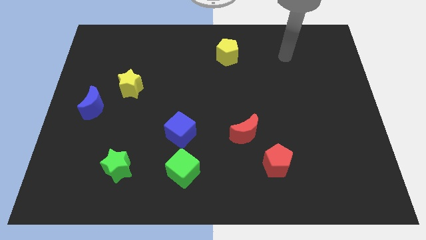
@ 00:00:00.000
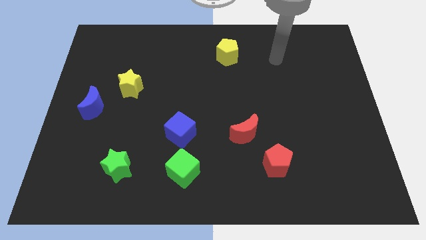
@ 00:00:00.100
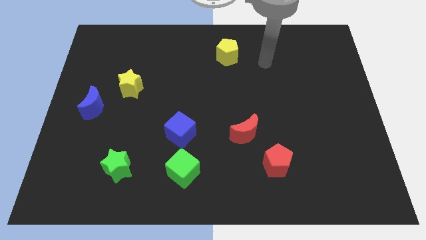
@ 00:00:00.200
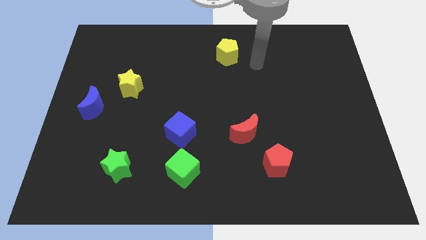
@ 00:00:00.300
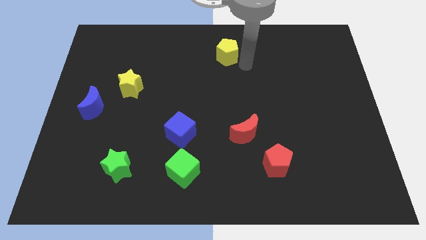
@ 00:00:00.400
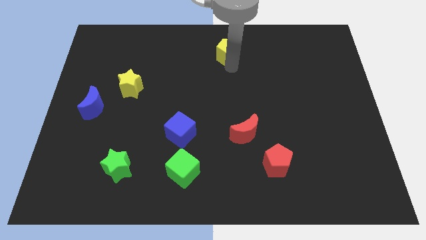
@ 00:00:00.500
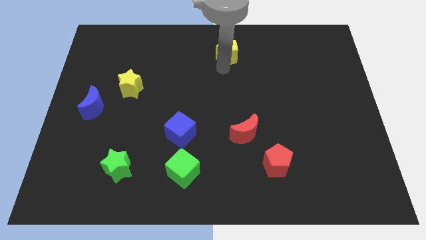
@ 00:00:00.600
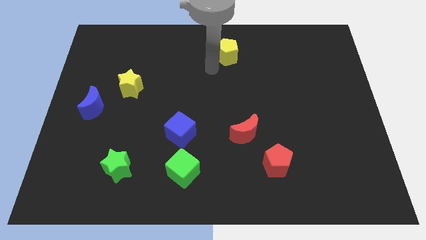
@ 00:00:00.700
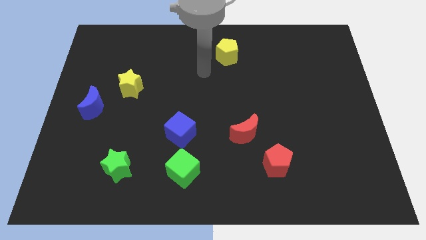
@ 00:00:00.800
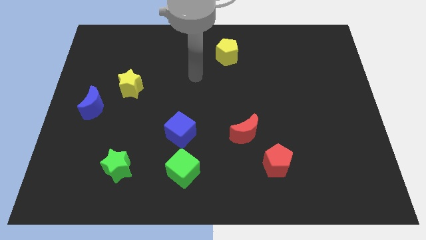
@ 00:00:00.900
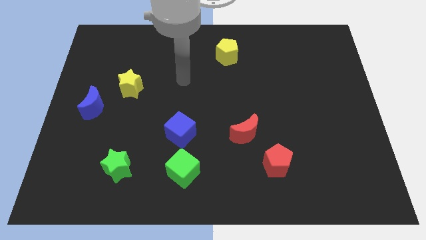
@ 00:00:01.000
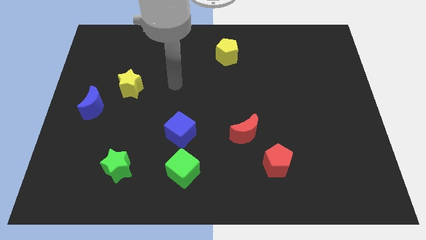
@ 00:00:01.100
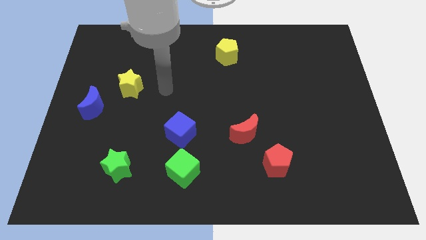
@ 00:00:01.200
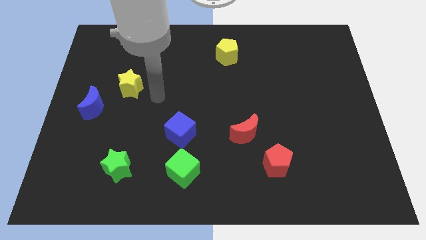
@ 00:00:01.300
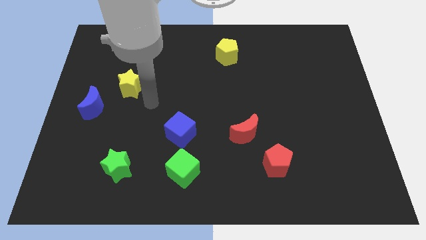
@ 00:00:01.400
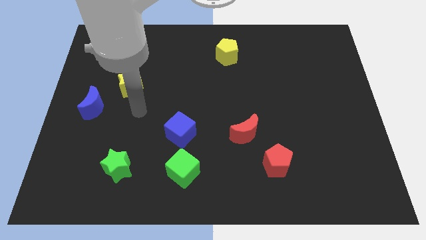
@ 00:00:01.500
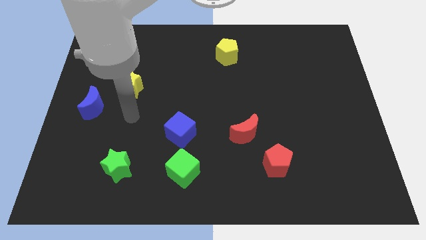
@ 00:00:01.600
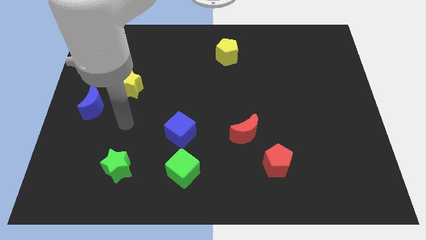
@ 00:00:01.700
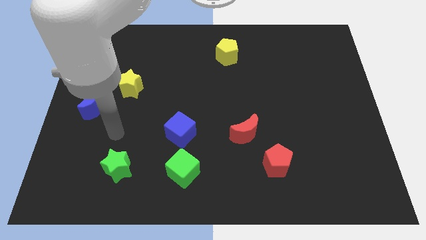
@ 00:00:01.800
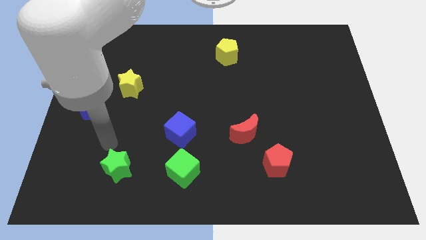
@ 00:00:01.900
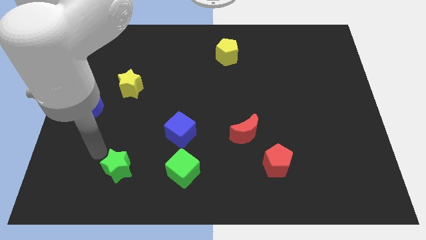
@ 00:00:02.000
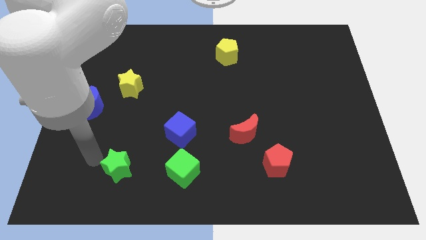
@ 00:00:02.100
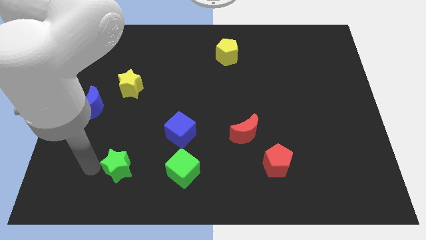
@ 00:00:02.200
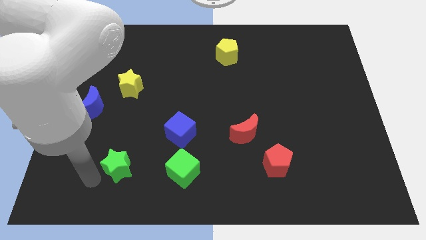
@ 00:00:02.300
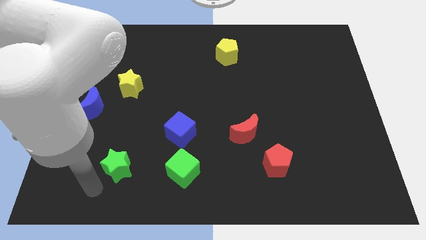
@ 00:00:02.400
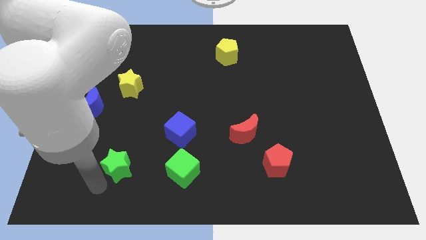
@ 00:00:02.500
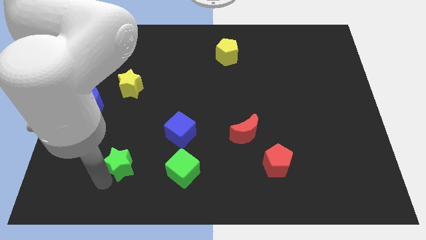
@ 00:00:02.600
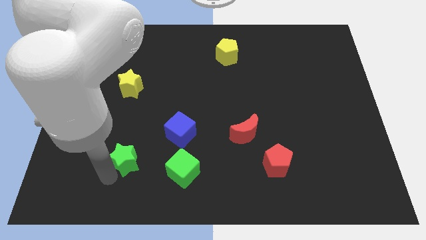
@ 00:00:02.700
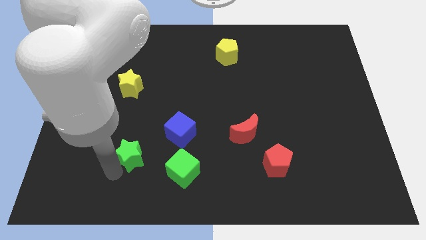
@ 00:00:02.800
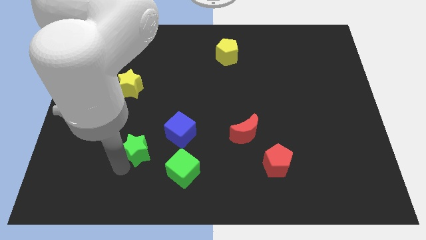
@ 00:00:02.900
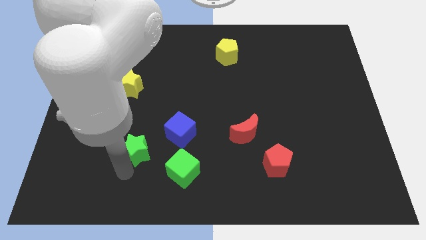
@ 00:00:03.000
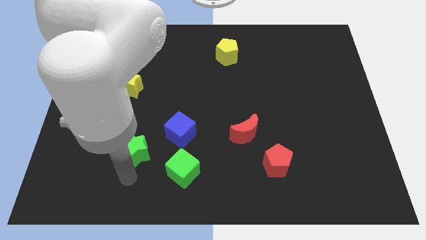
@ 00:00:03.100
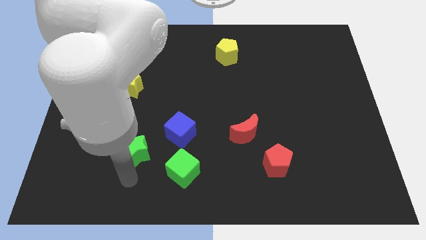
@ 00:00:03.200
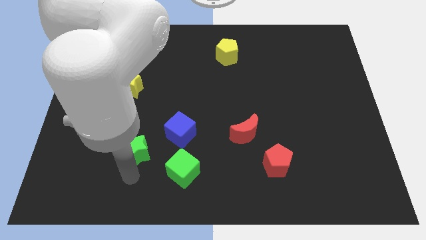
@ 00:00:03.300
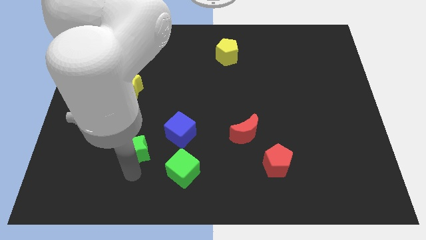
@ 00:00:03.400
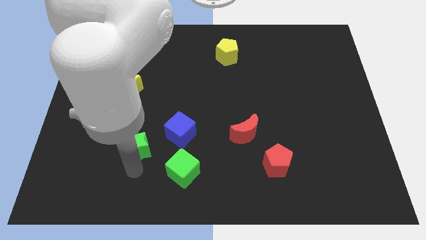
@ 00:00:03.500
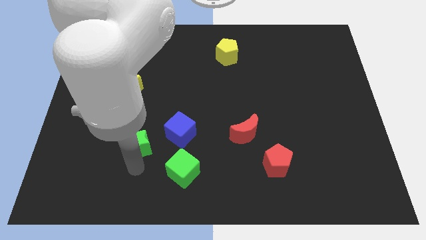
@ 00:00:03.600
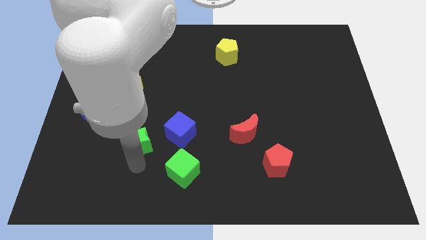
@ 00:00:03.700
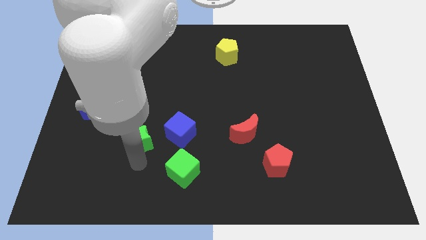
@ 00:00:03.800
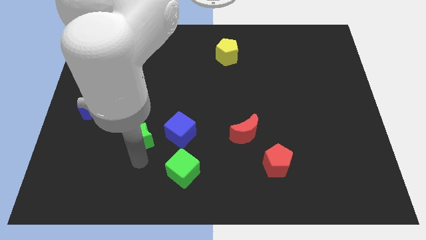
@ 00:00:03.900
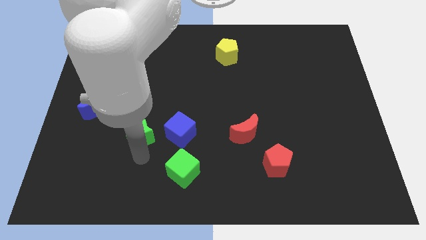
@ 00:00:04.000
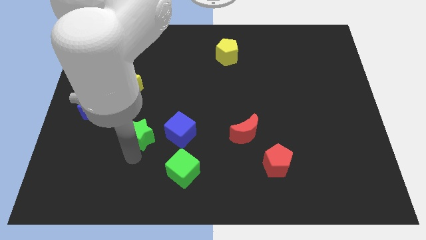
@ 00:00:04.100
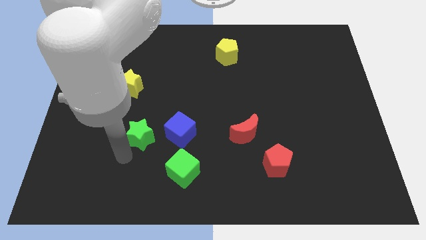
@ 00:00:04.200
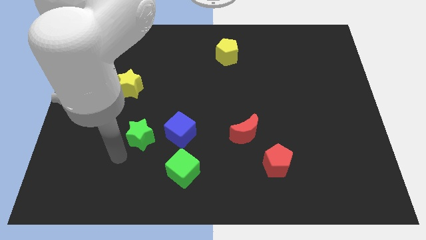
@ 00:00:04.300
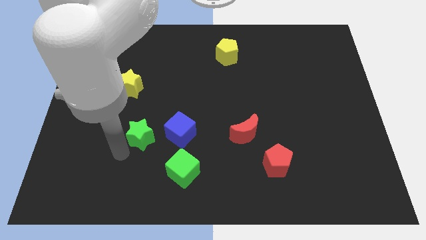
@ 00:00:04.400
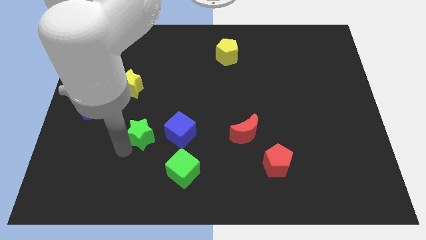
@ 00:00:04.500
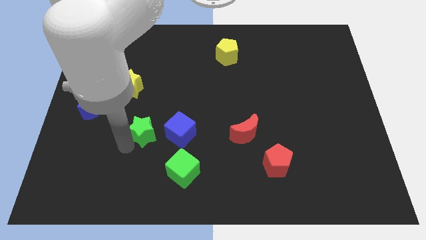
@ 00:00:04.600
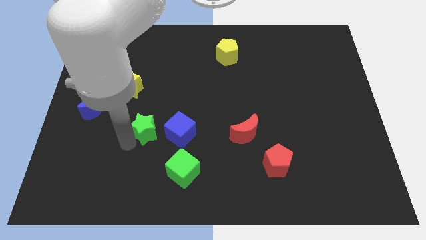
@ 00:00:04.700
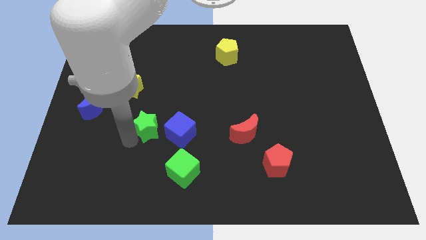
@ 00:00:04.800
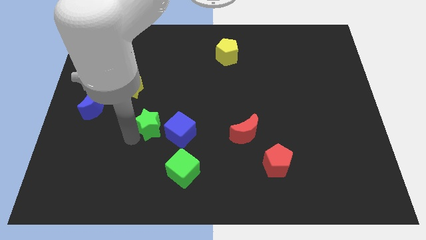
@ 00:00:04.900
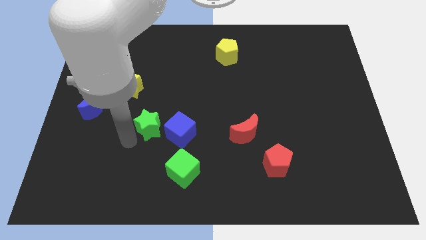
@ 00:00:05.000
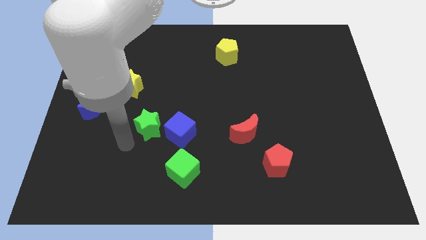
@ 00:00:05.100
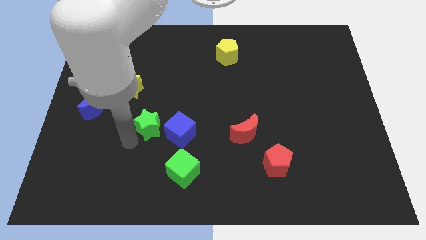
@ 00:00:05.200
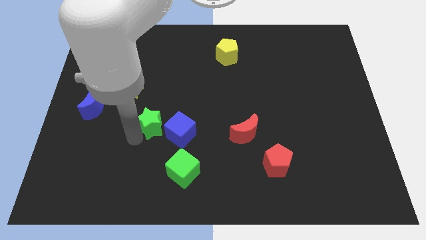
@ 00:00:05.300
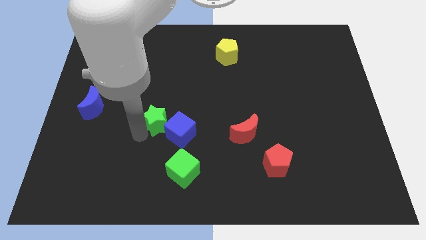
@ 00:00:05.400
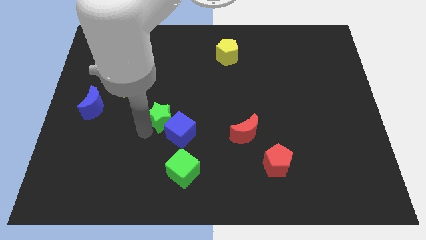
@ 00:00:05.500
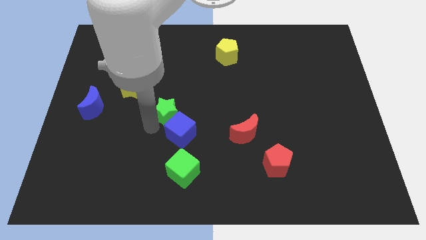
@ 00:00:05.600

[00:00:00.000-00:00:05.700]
move the green star to the middle of the board

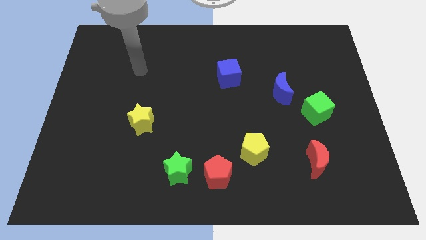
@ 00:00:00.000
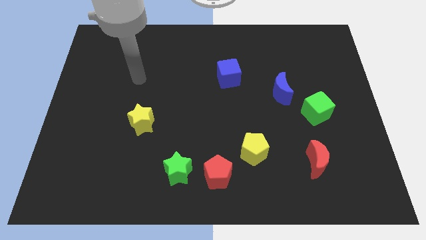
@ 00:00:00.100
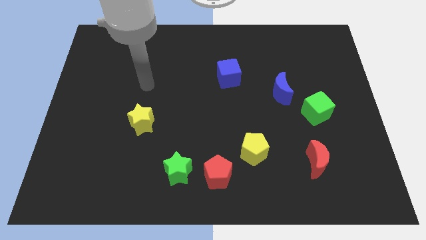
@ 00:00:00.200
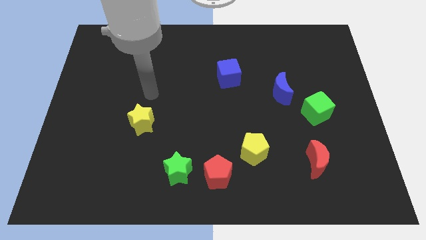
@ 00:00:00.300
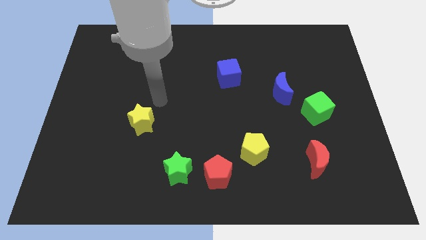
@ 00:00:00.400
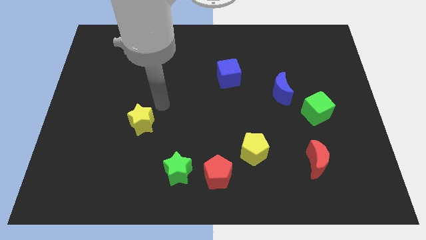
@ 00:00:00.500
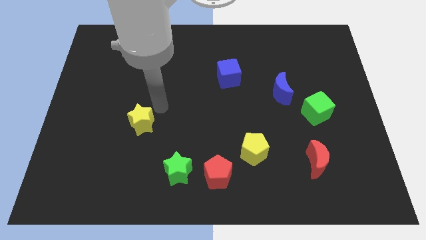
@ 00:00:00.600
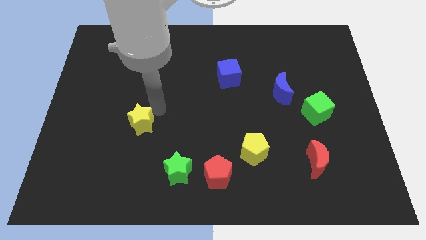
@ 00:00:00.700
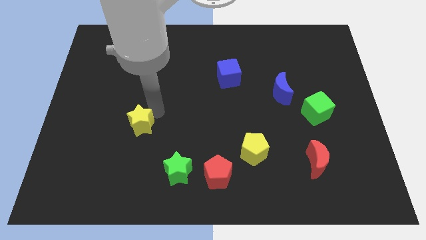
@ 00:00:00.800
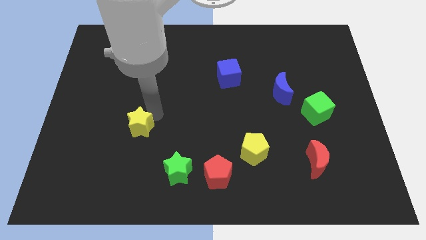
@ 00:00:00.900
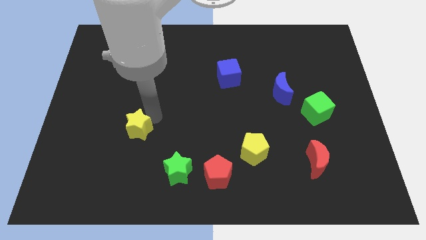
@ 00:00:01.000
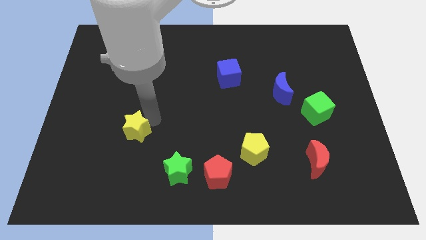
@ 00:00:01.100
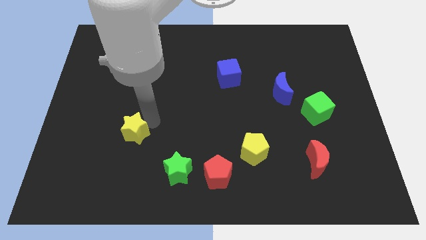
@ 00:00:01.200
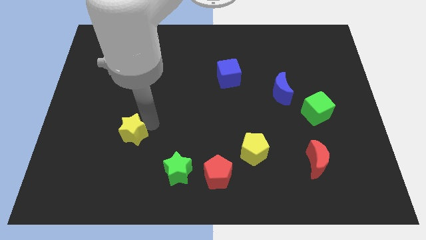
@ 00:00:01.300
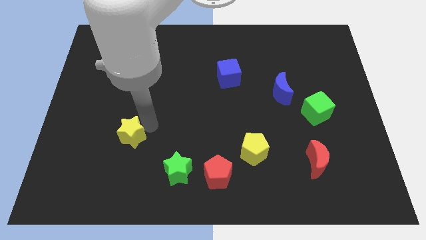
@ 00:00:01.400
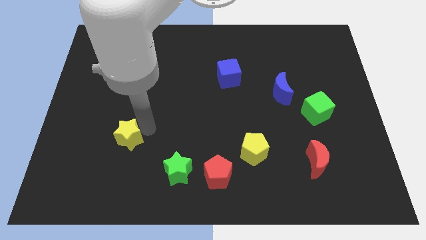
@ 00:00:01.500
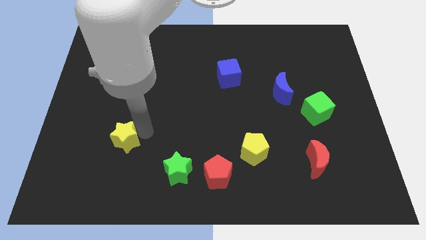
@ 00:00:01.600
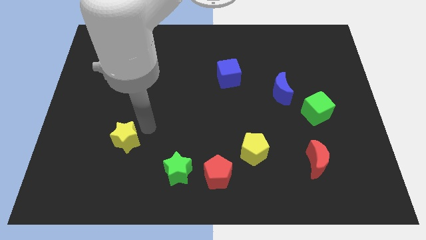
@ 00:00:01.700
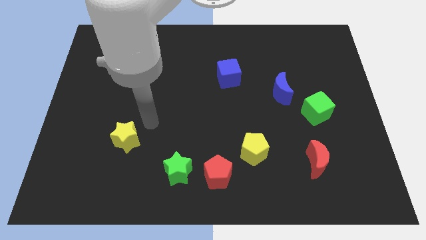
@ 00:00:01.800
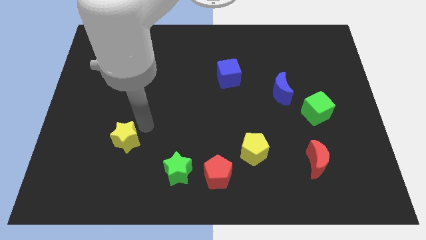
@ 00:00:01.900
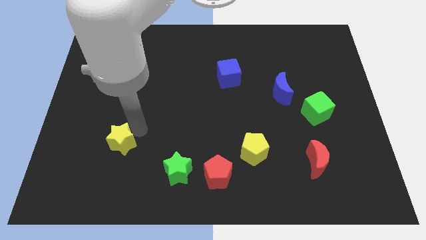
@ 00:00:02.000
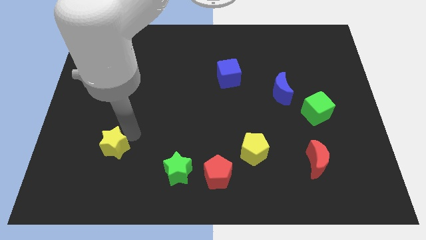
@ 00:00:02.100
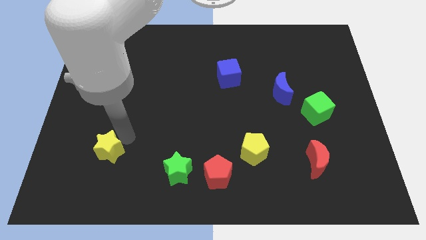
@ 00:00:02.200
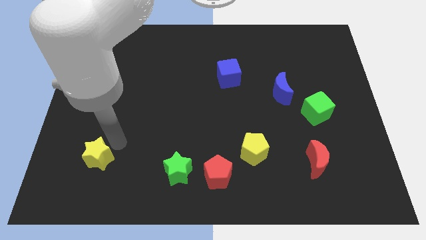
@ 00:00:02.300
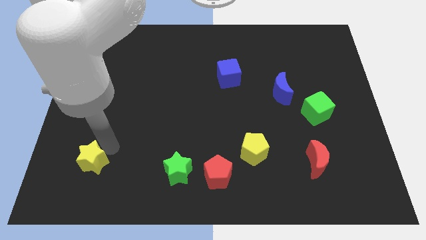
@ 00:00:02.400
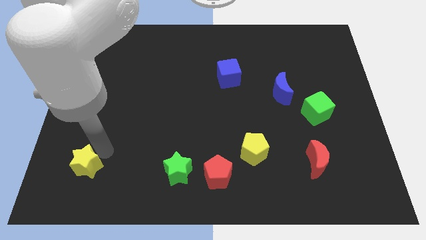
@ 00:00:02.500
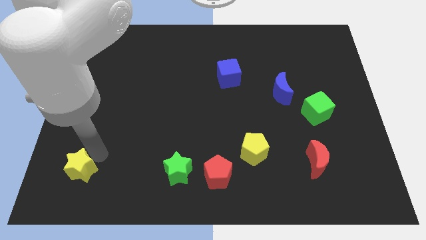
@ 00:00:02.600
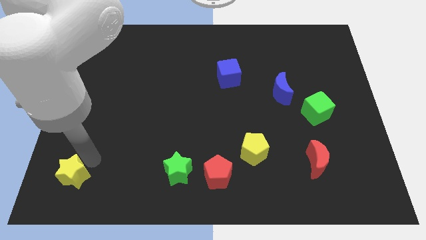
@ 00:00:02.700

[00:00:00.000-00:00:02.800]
move the yellow star to the bottom left of the board
